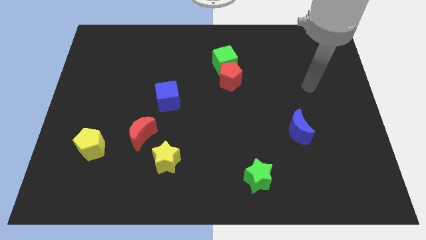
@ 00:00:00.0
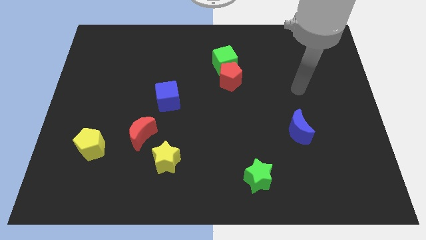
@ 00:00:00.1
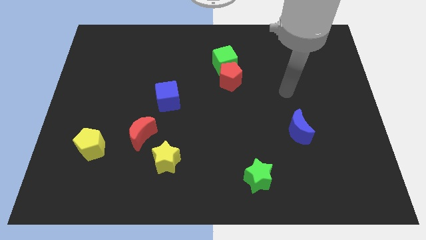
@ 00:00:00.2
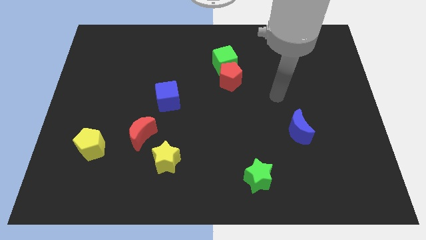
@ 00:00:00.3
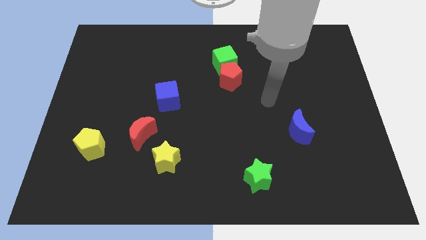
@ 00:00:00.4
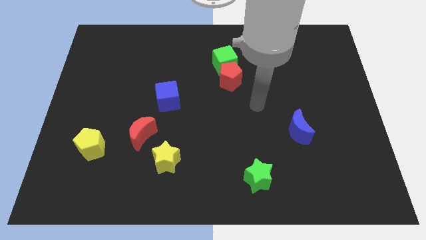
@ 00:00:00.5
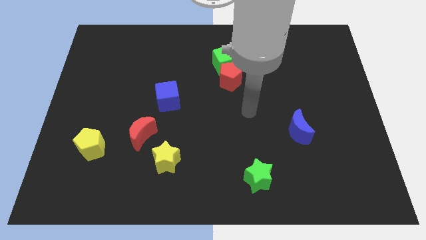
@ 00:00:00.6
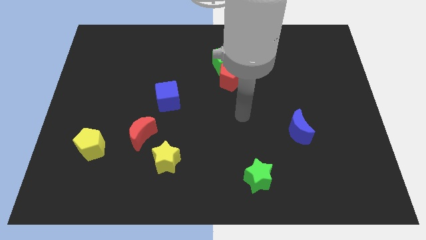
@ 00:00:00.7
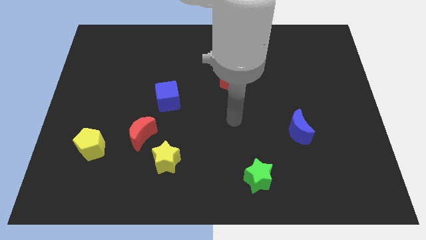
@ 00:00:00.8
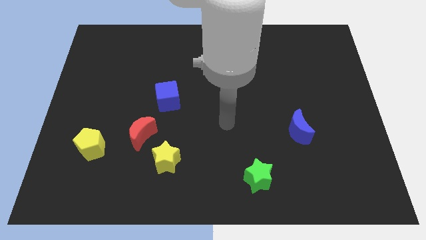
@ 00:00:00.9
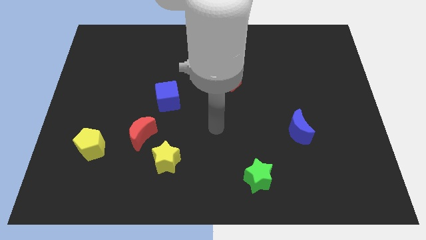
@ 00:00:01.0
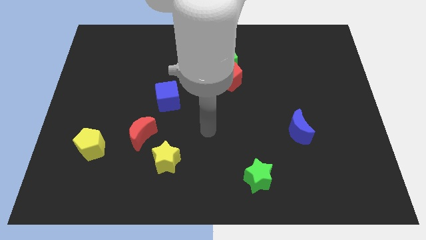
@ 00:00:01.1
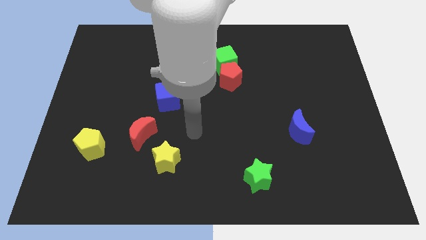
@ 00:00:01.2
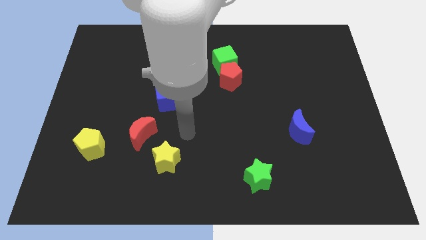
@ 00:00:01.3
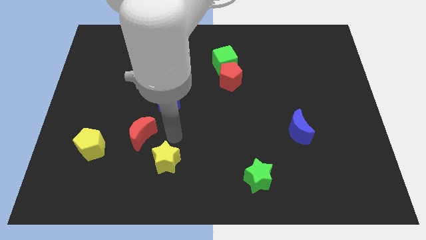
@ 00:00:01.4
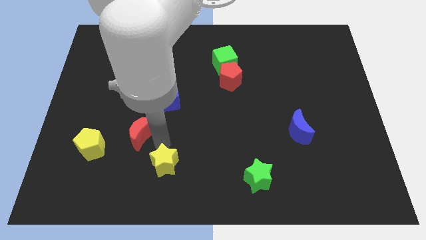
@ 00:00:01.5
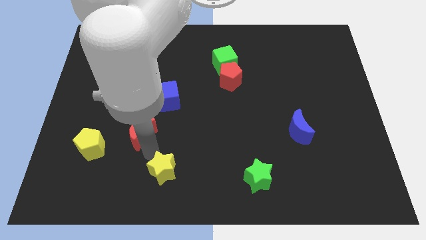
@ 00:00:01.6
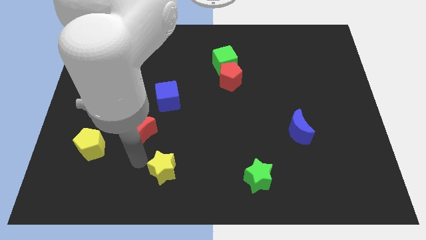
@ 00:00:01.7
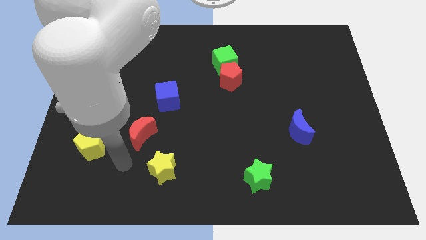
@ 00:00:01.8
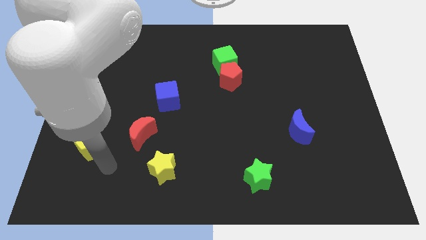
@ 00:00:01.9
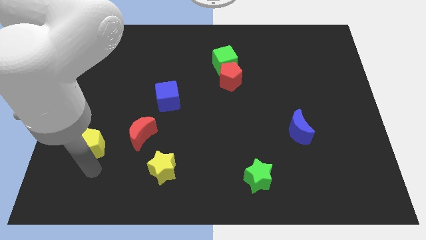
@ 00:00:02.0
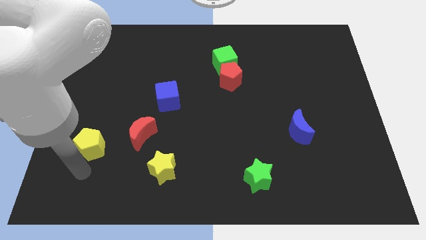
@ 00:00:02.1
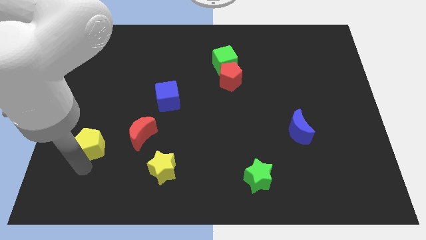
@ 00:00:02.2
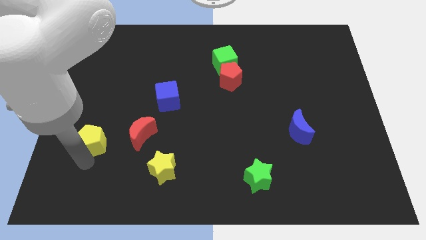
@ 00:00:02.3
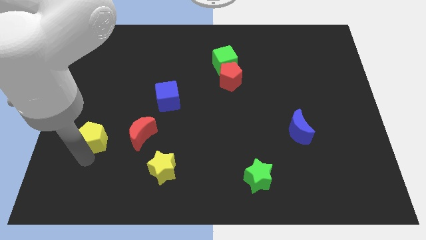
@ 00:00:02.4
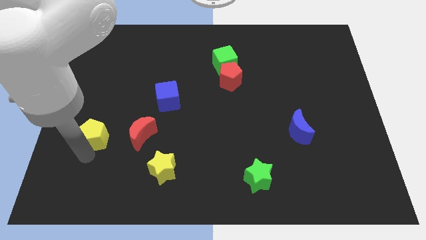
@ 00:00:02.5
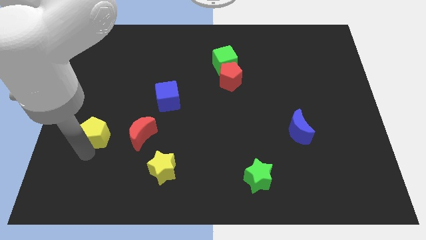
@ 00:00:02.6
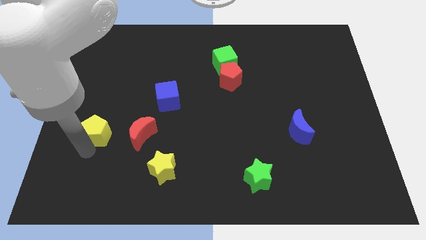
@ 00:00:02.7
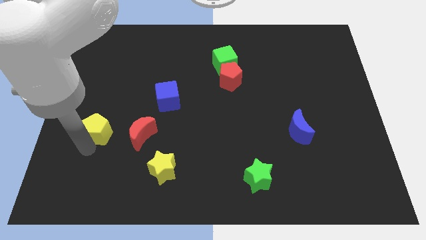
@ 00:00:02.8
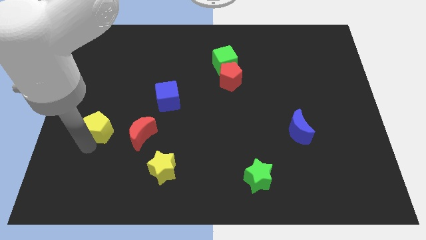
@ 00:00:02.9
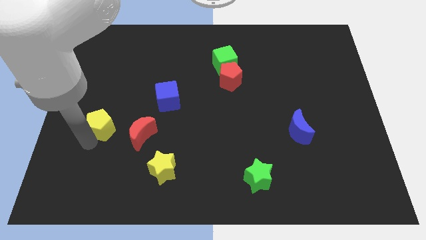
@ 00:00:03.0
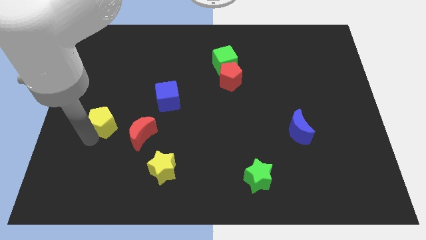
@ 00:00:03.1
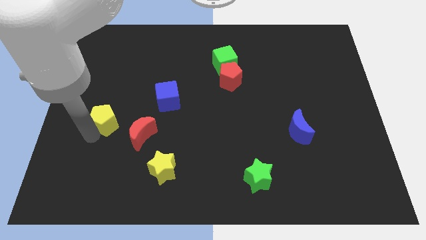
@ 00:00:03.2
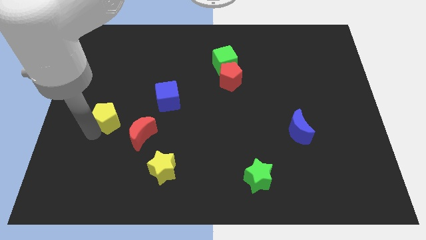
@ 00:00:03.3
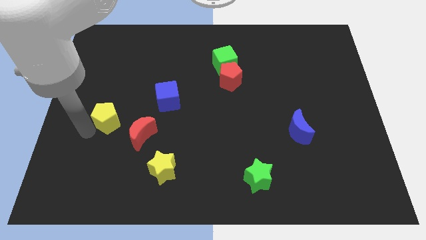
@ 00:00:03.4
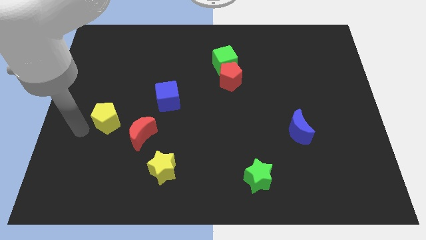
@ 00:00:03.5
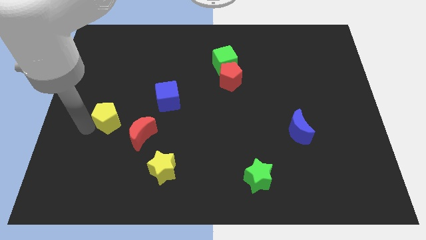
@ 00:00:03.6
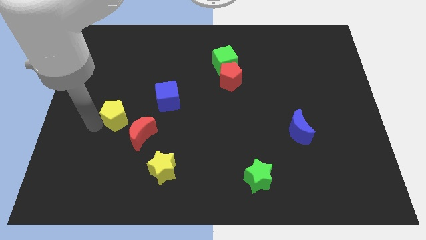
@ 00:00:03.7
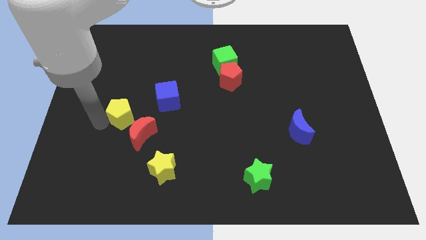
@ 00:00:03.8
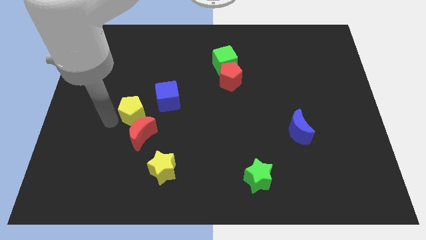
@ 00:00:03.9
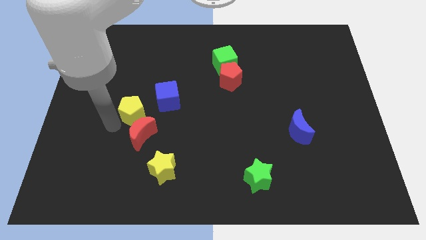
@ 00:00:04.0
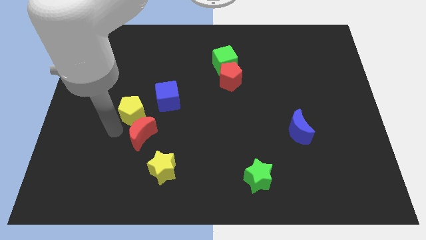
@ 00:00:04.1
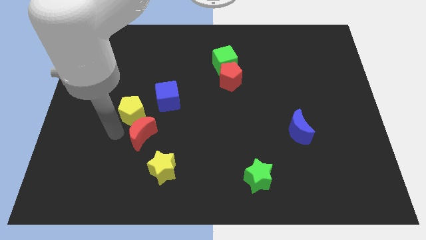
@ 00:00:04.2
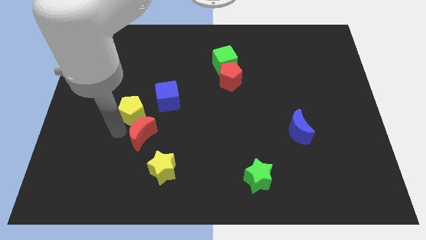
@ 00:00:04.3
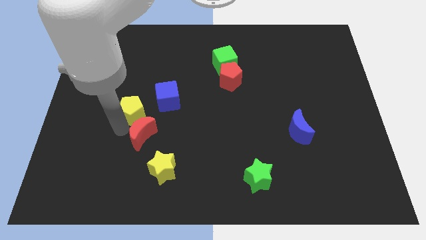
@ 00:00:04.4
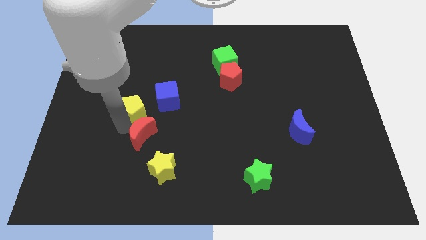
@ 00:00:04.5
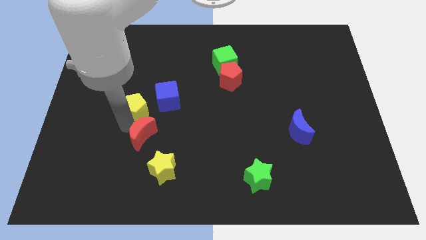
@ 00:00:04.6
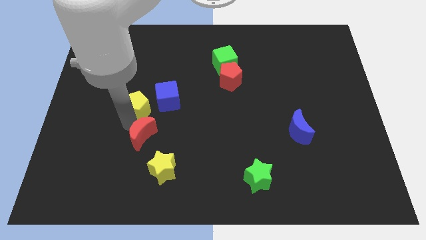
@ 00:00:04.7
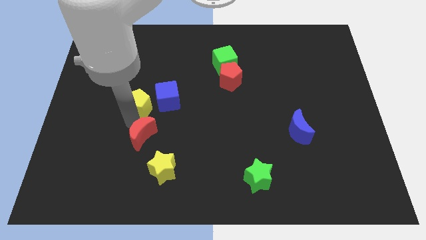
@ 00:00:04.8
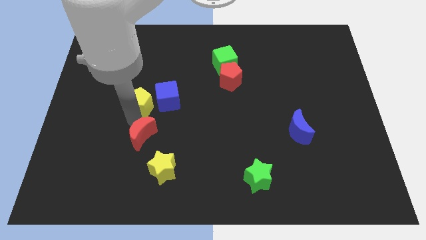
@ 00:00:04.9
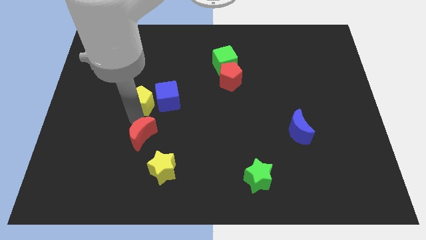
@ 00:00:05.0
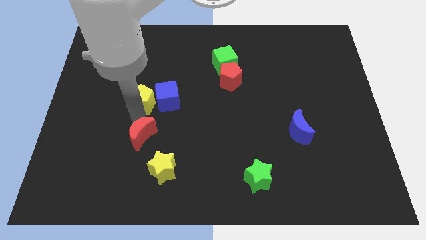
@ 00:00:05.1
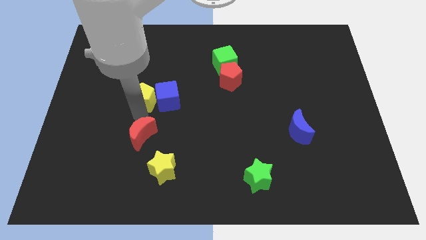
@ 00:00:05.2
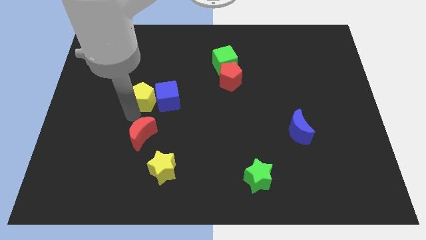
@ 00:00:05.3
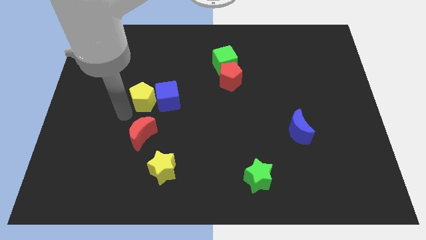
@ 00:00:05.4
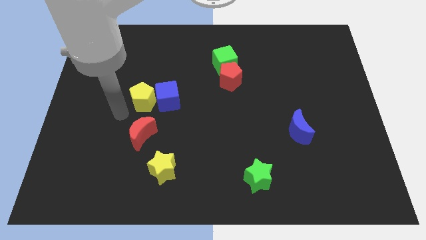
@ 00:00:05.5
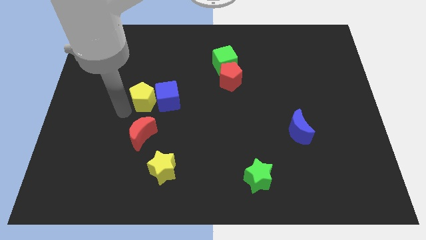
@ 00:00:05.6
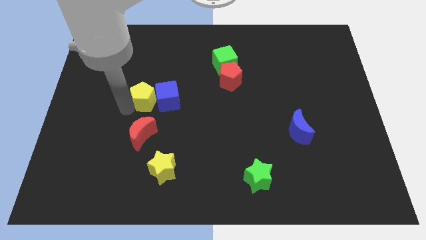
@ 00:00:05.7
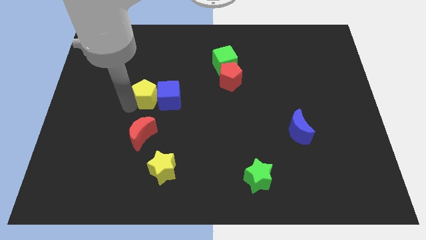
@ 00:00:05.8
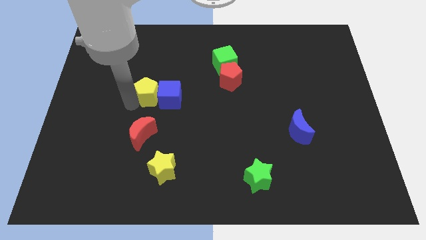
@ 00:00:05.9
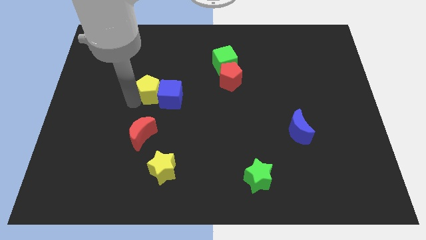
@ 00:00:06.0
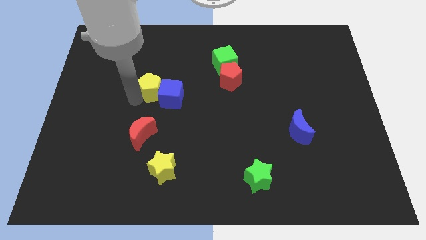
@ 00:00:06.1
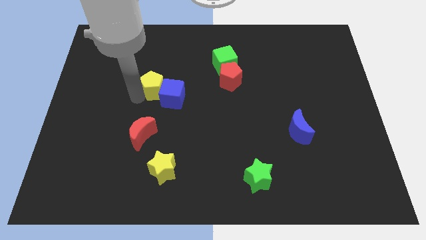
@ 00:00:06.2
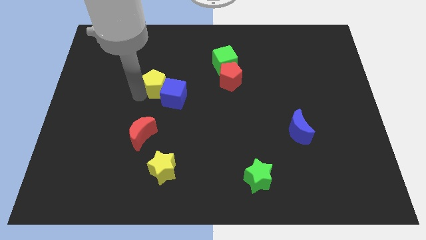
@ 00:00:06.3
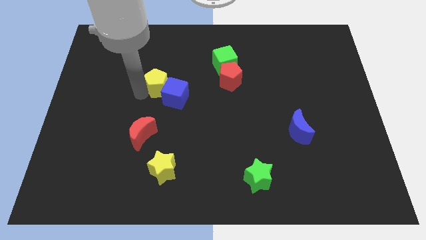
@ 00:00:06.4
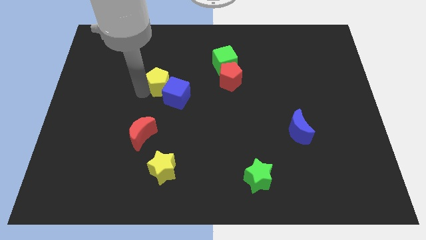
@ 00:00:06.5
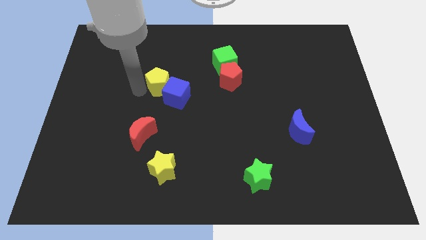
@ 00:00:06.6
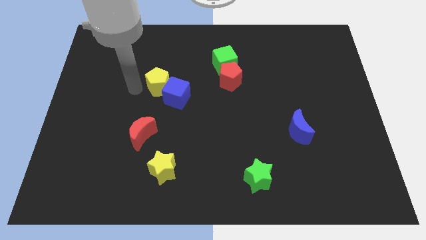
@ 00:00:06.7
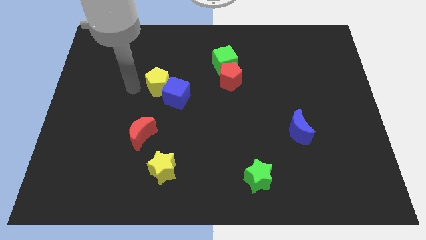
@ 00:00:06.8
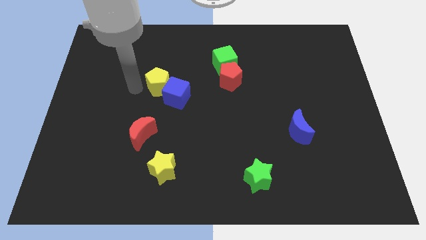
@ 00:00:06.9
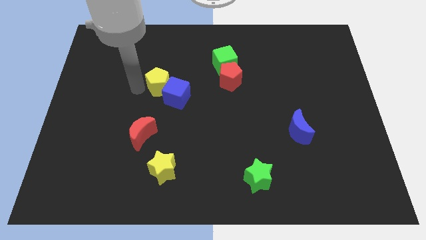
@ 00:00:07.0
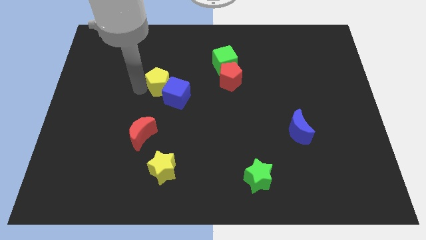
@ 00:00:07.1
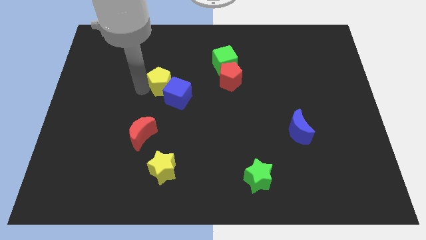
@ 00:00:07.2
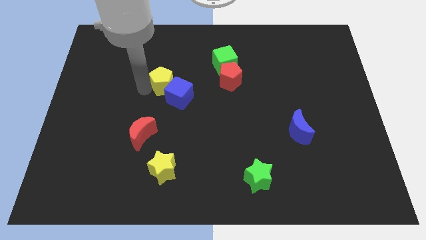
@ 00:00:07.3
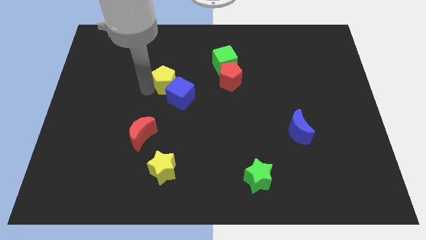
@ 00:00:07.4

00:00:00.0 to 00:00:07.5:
put the yellow pentagon to the left of the red pentagon

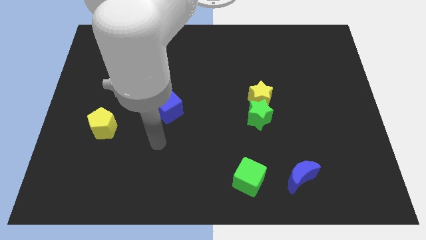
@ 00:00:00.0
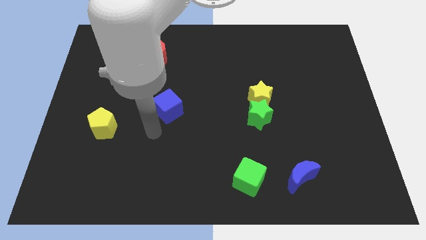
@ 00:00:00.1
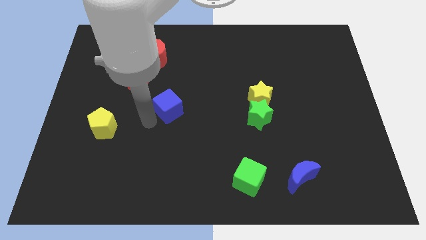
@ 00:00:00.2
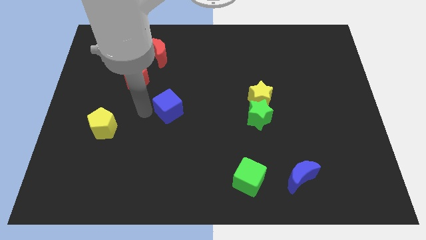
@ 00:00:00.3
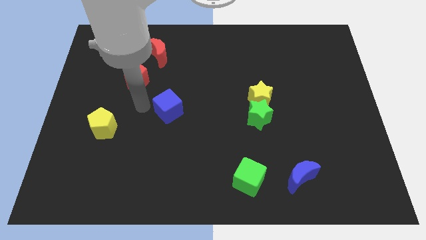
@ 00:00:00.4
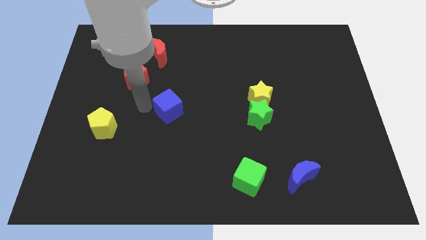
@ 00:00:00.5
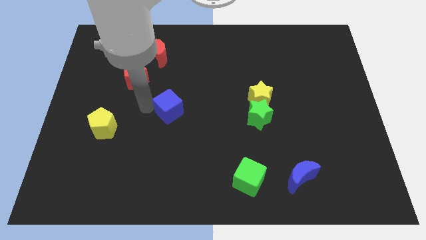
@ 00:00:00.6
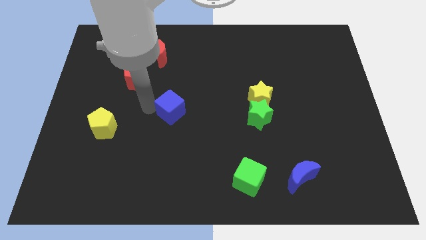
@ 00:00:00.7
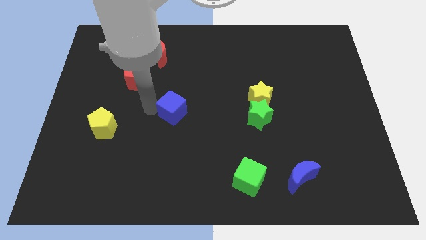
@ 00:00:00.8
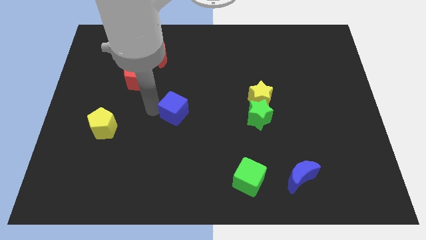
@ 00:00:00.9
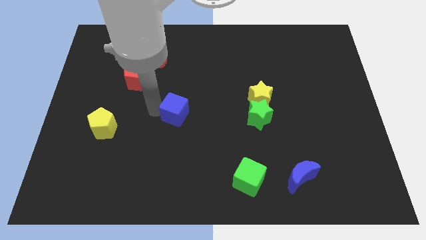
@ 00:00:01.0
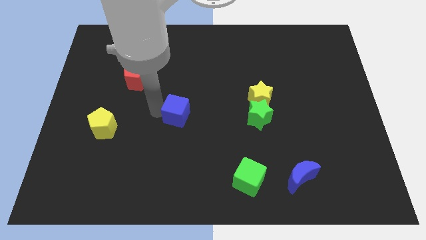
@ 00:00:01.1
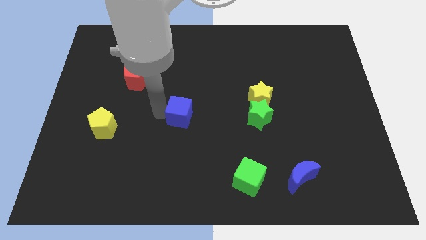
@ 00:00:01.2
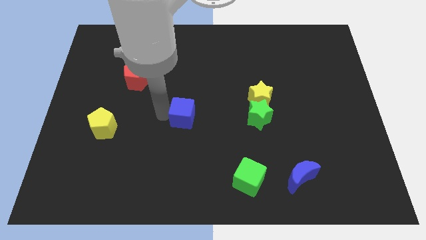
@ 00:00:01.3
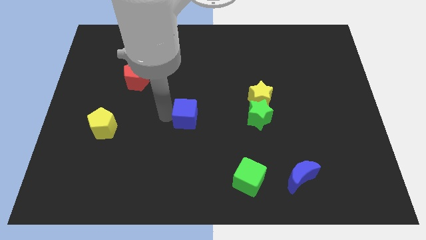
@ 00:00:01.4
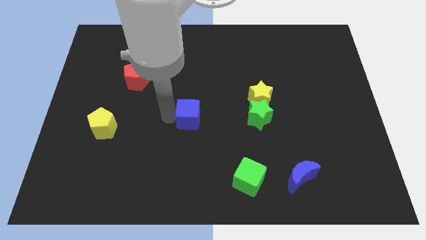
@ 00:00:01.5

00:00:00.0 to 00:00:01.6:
move the blue cube left of the green star
